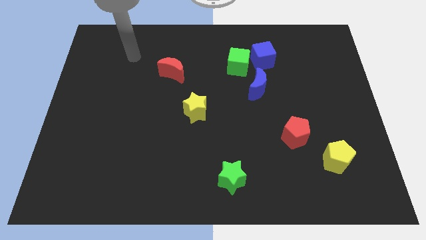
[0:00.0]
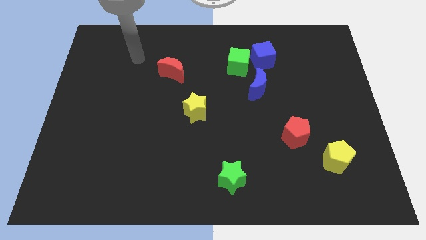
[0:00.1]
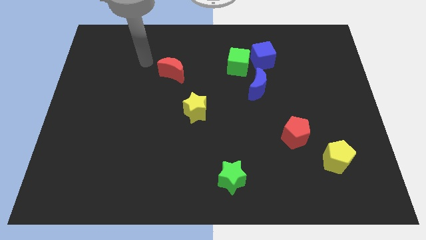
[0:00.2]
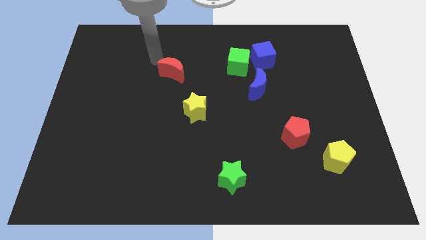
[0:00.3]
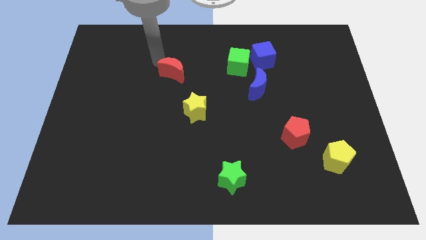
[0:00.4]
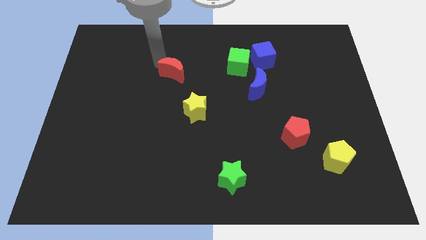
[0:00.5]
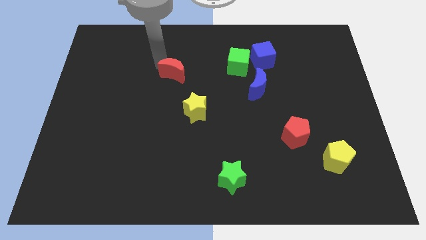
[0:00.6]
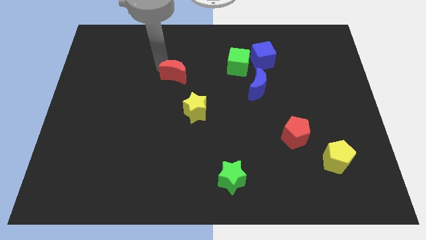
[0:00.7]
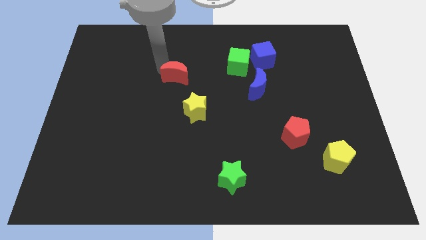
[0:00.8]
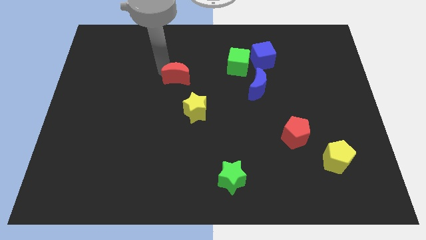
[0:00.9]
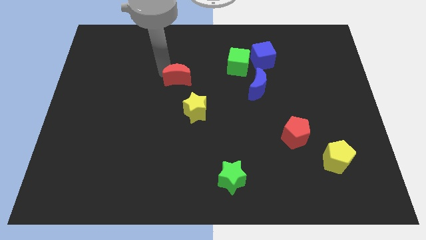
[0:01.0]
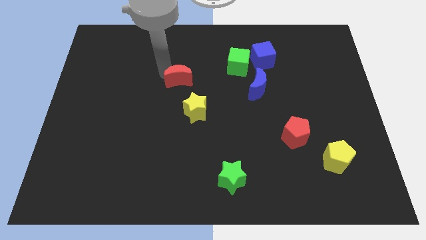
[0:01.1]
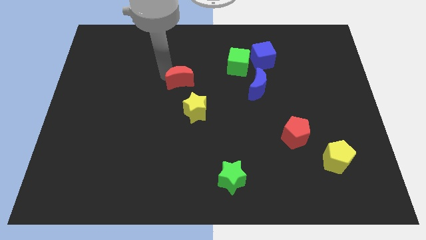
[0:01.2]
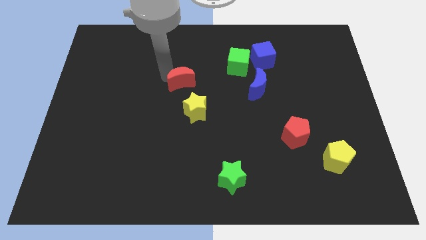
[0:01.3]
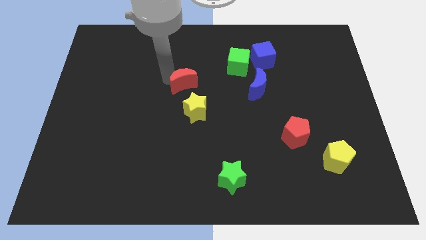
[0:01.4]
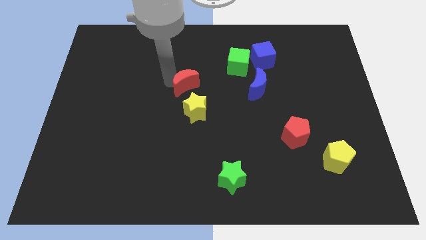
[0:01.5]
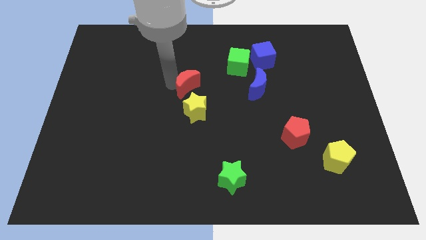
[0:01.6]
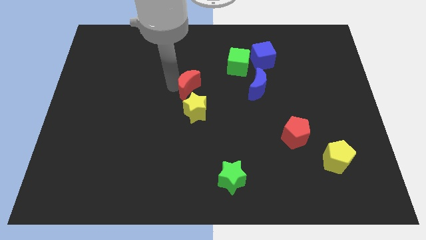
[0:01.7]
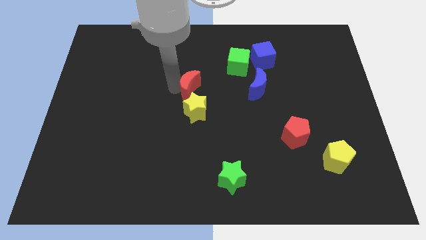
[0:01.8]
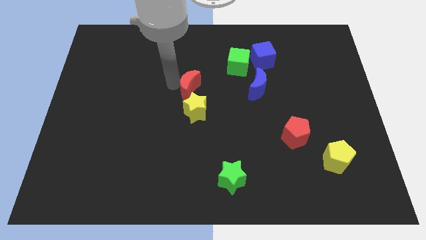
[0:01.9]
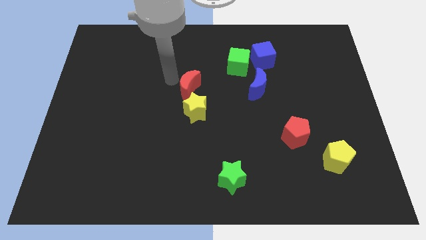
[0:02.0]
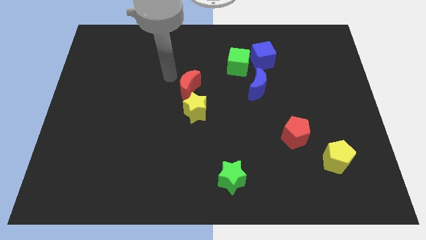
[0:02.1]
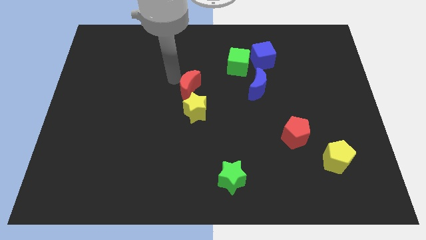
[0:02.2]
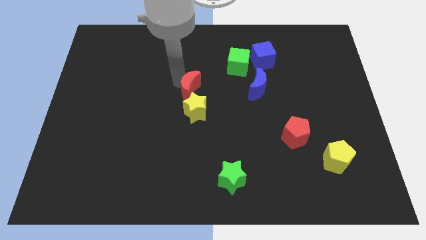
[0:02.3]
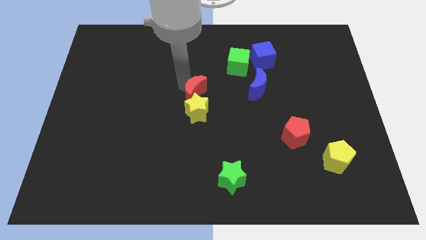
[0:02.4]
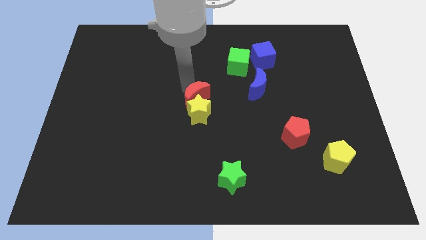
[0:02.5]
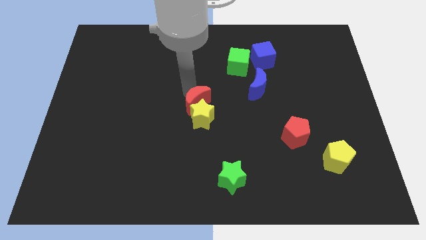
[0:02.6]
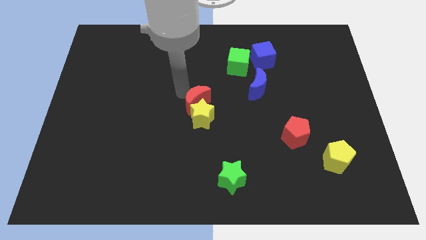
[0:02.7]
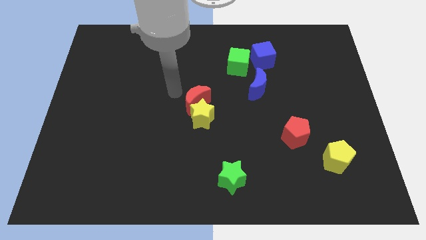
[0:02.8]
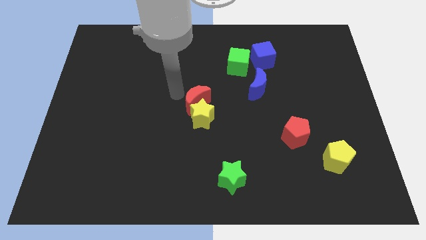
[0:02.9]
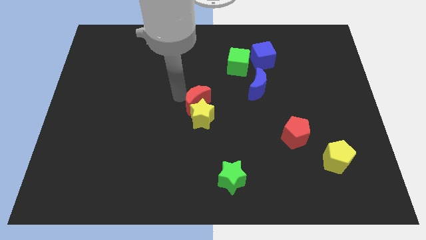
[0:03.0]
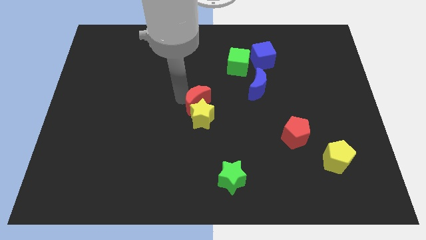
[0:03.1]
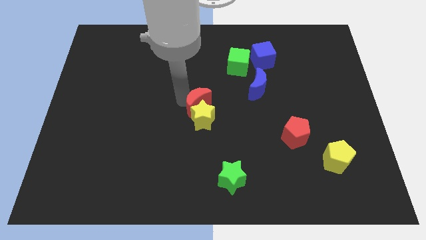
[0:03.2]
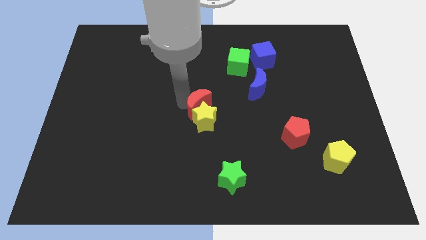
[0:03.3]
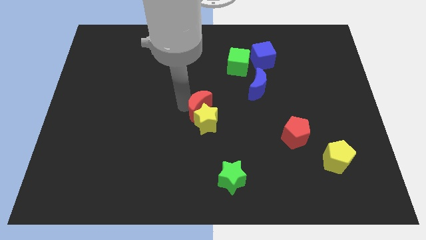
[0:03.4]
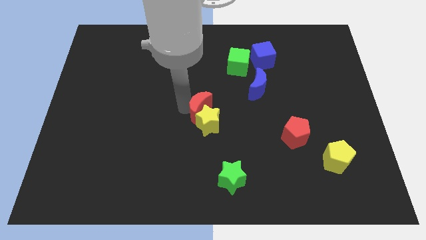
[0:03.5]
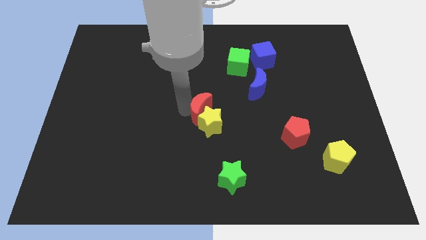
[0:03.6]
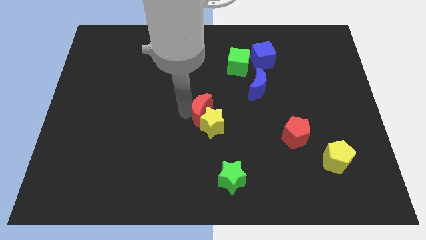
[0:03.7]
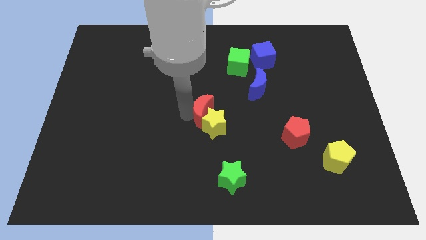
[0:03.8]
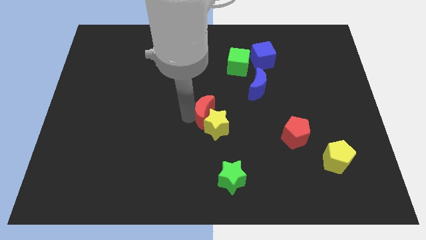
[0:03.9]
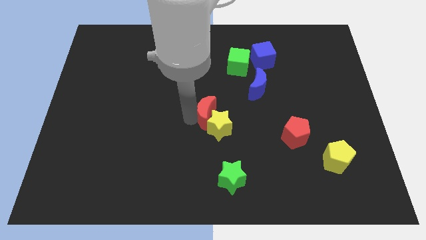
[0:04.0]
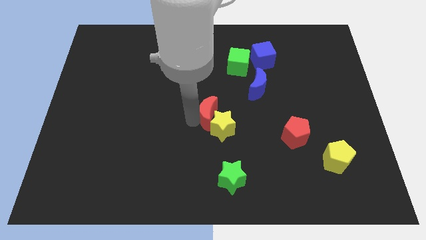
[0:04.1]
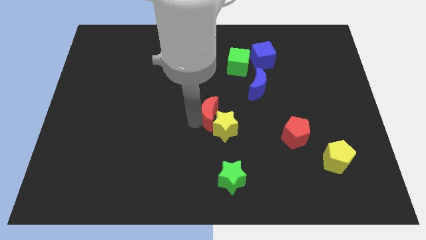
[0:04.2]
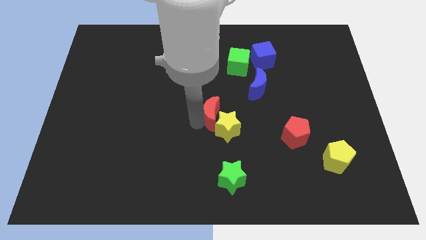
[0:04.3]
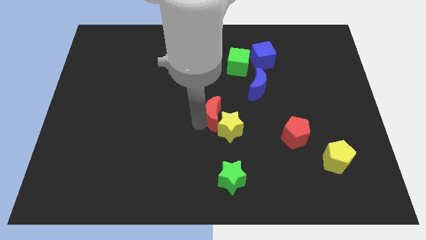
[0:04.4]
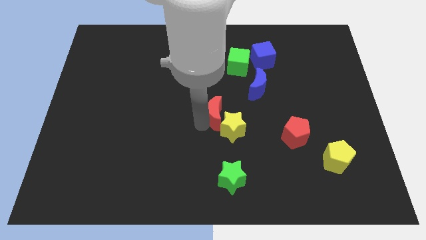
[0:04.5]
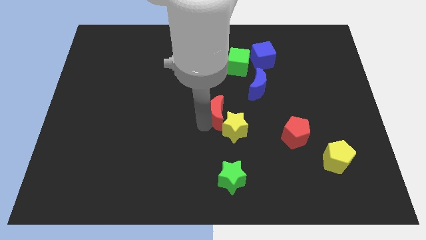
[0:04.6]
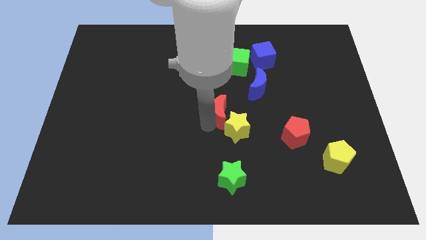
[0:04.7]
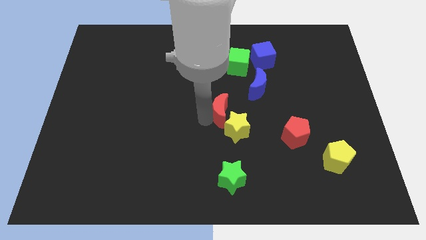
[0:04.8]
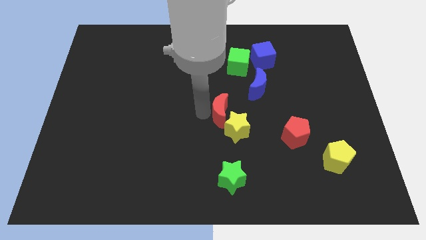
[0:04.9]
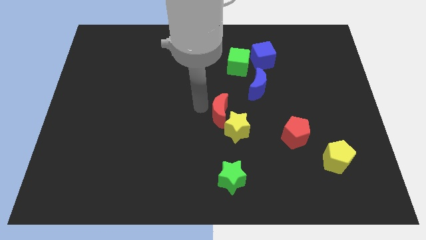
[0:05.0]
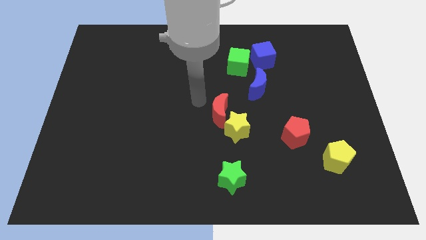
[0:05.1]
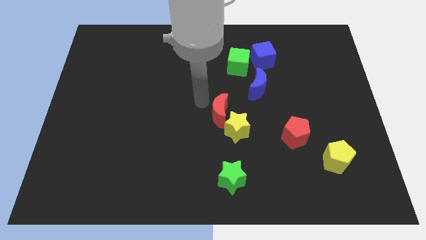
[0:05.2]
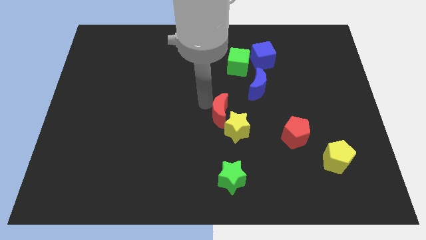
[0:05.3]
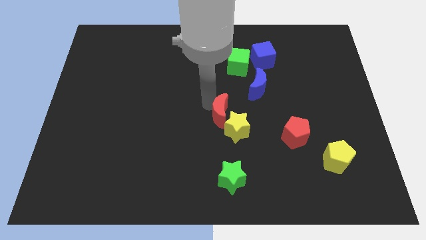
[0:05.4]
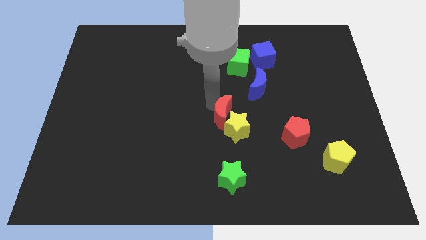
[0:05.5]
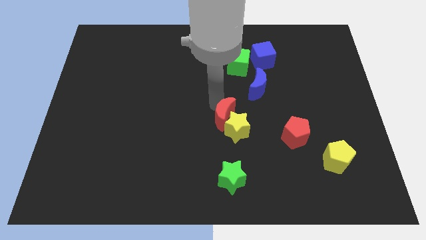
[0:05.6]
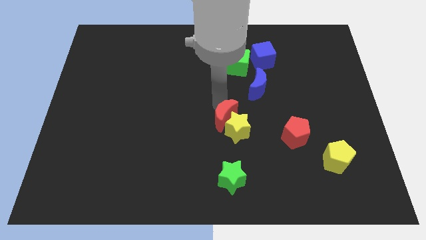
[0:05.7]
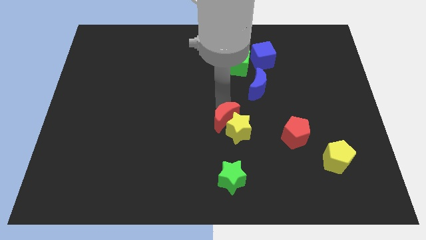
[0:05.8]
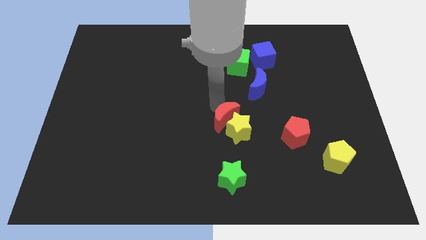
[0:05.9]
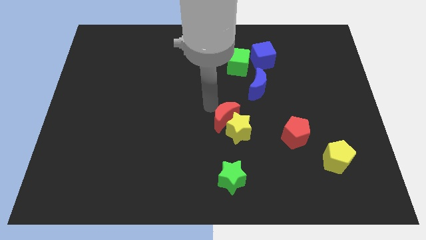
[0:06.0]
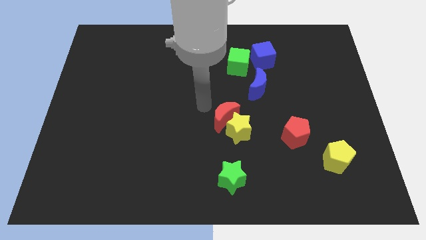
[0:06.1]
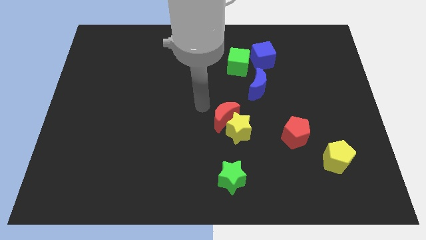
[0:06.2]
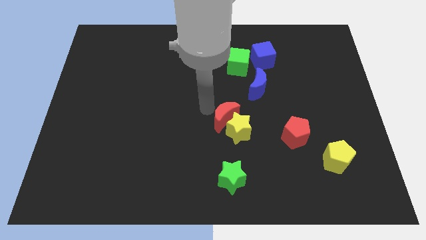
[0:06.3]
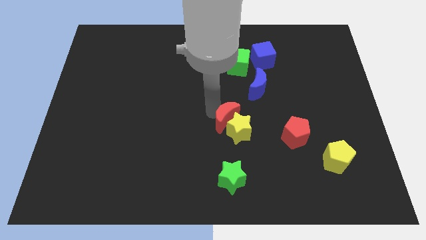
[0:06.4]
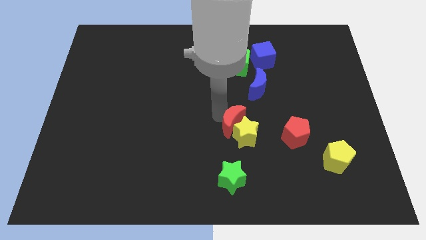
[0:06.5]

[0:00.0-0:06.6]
push the red moon downwards and to the right diagonally

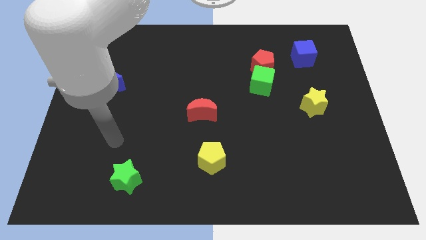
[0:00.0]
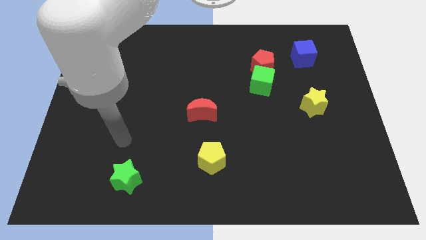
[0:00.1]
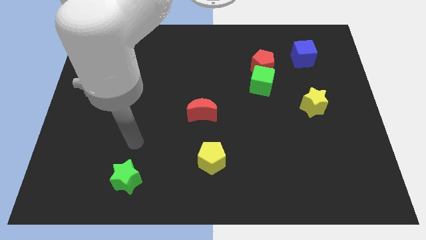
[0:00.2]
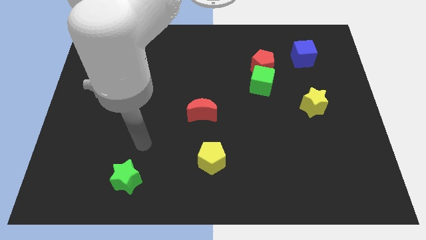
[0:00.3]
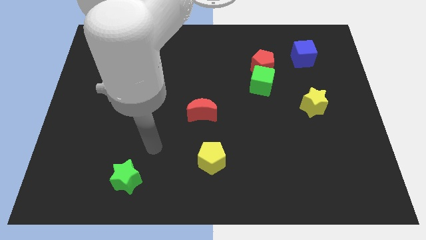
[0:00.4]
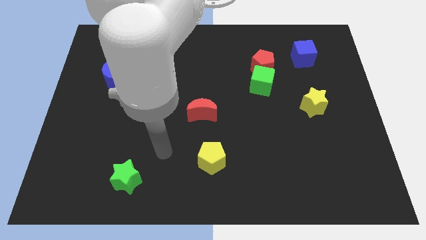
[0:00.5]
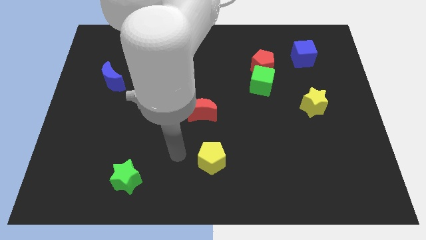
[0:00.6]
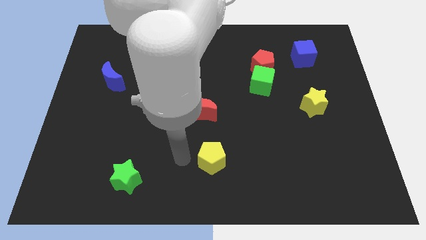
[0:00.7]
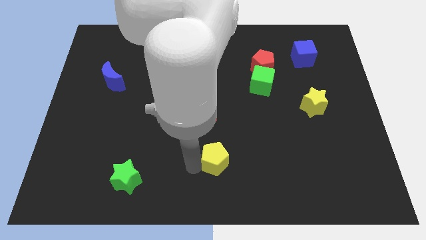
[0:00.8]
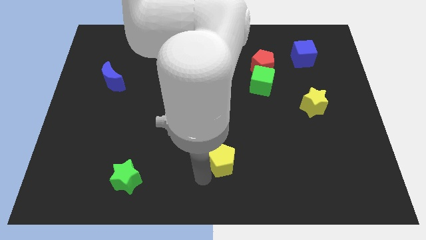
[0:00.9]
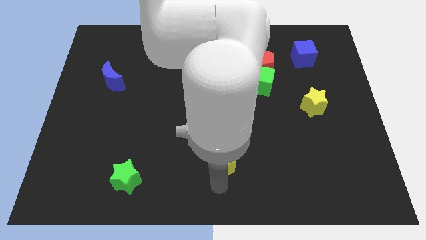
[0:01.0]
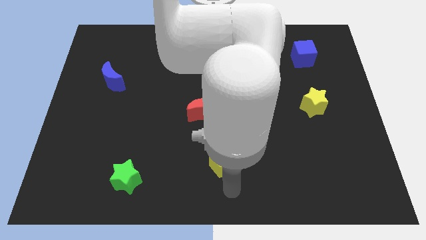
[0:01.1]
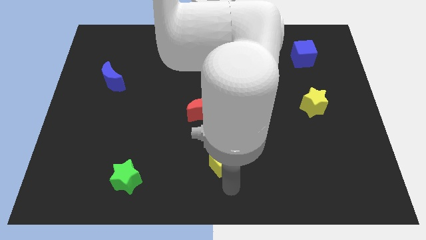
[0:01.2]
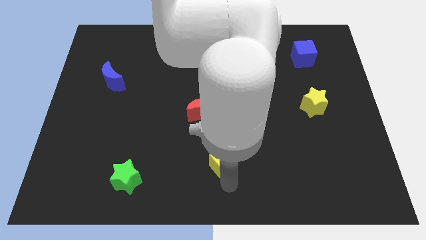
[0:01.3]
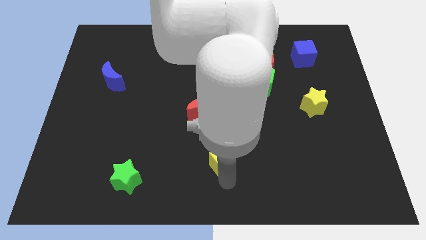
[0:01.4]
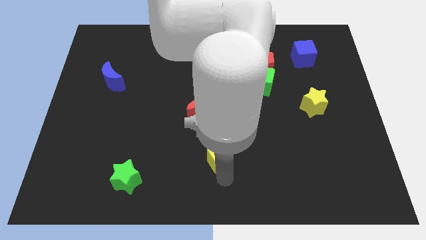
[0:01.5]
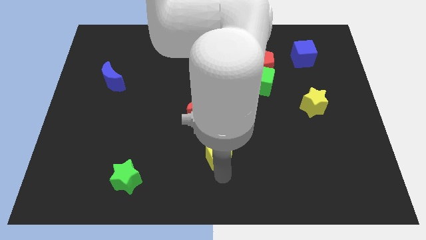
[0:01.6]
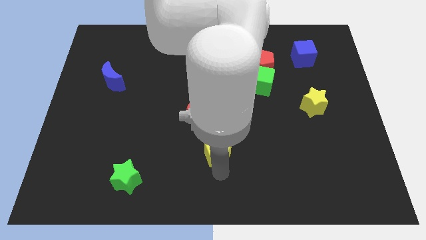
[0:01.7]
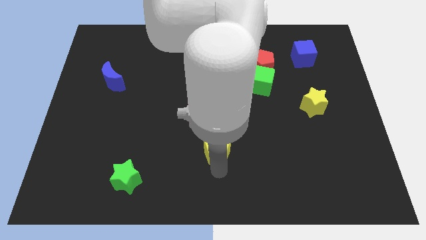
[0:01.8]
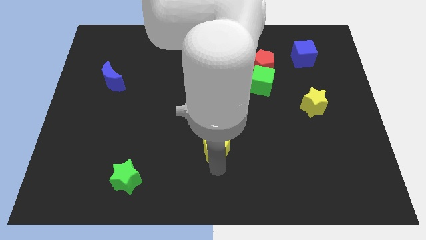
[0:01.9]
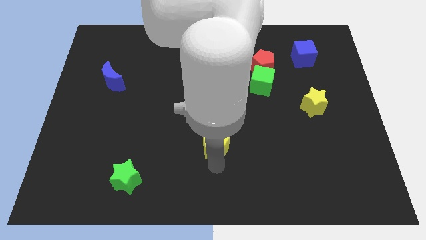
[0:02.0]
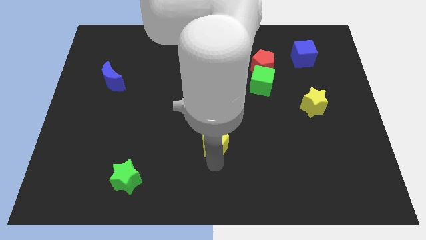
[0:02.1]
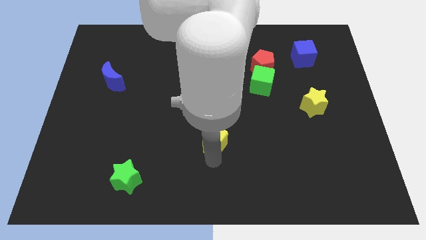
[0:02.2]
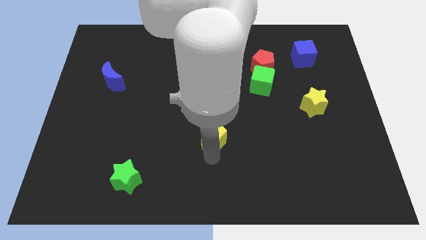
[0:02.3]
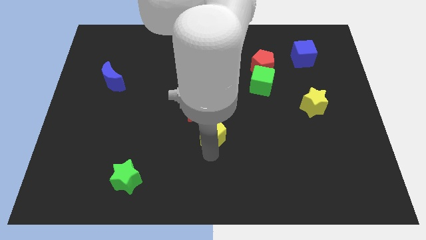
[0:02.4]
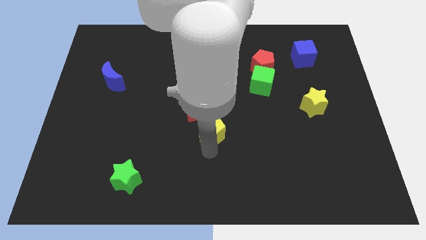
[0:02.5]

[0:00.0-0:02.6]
slide the yellow pentagon up a little
